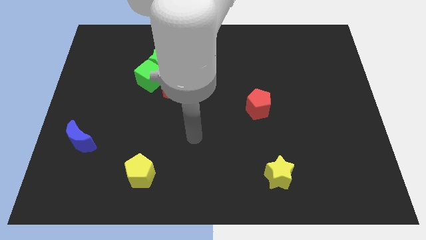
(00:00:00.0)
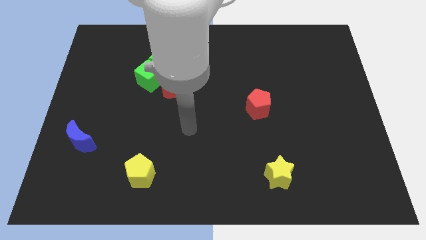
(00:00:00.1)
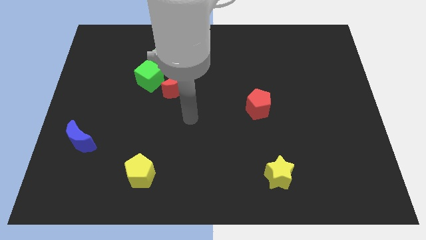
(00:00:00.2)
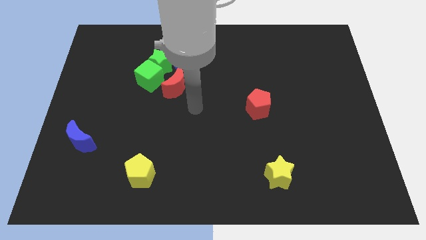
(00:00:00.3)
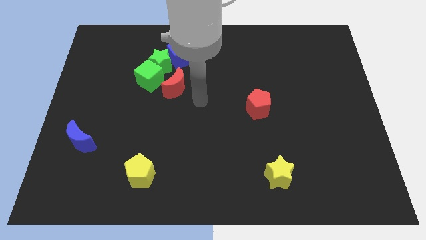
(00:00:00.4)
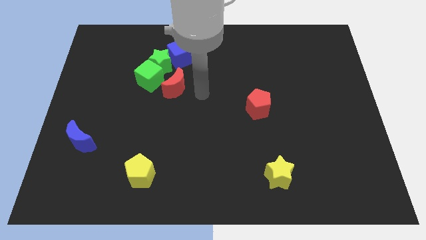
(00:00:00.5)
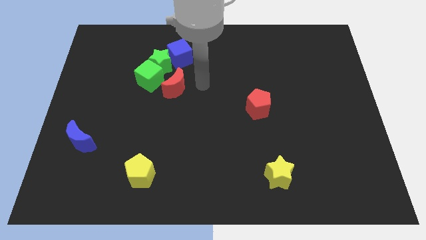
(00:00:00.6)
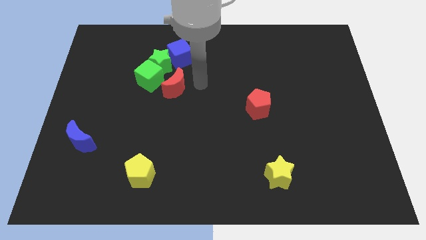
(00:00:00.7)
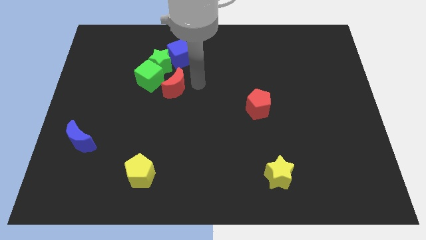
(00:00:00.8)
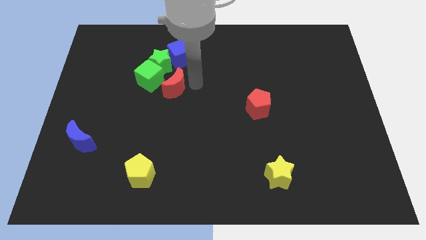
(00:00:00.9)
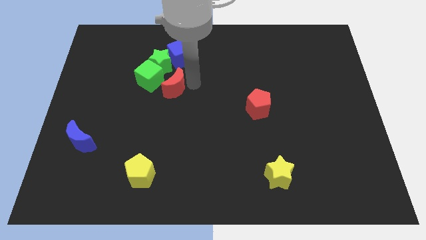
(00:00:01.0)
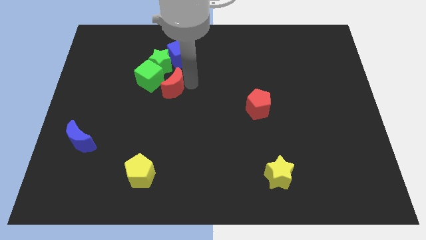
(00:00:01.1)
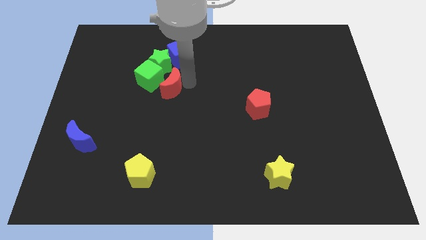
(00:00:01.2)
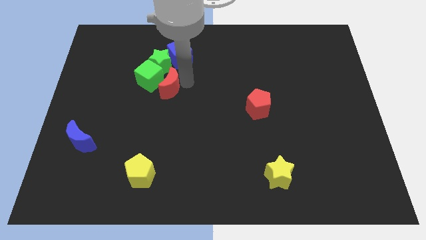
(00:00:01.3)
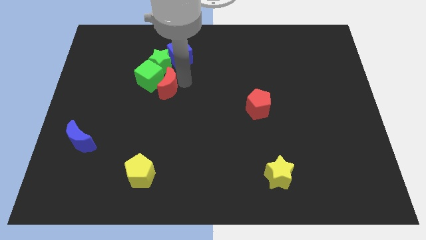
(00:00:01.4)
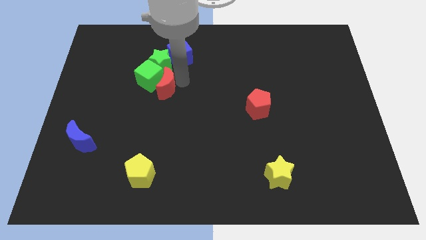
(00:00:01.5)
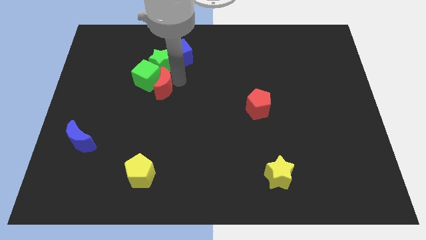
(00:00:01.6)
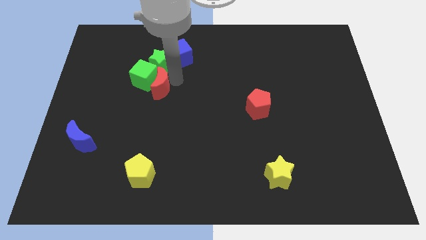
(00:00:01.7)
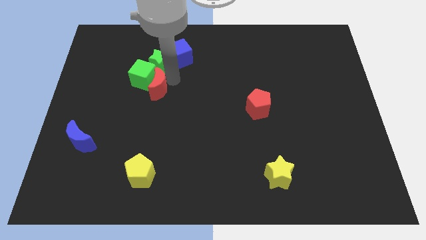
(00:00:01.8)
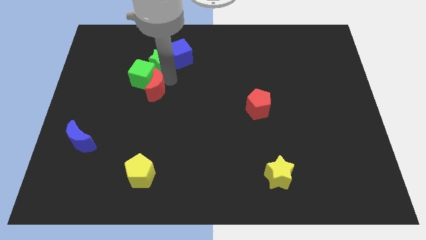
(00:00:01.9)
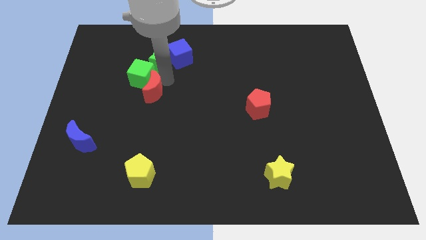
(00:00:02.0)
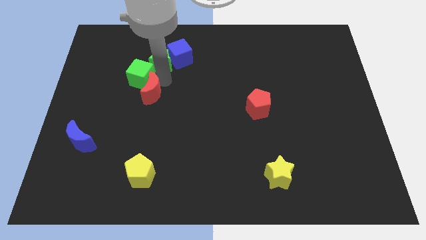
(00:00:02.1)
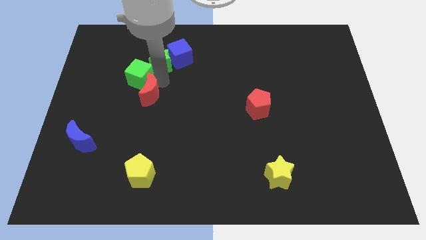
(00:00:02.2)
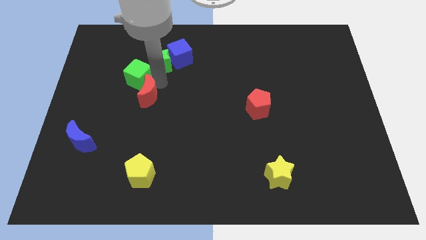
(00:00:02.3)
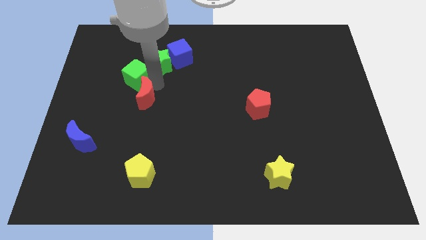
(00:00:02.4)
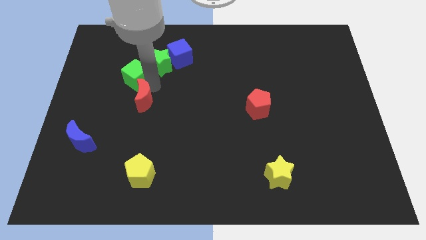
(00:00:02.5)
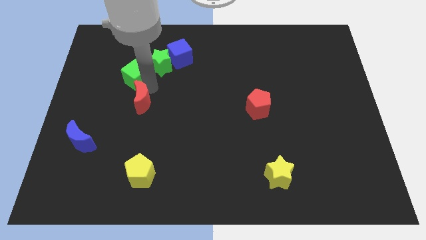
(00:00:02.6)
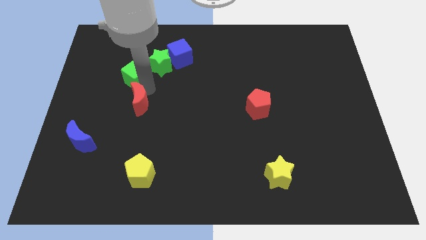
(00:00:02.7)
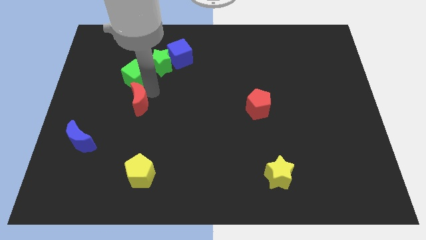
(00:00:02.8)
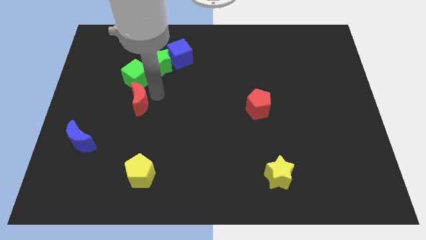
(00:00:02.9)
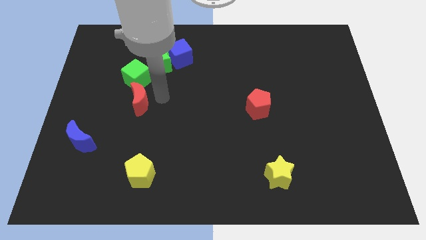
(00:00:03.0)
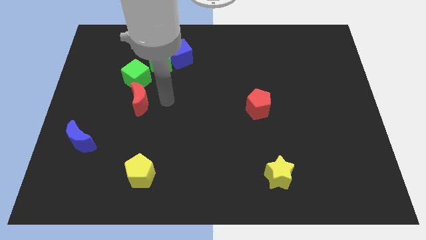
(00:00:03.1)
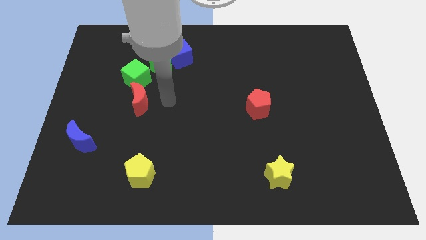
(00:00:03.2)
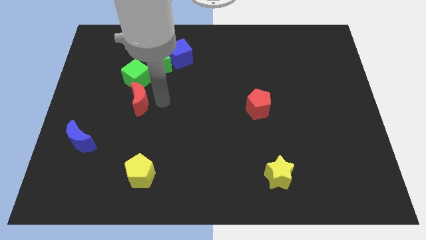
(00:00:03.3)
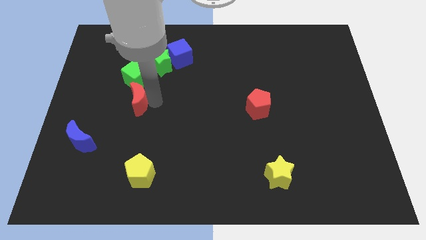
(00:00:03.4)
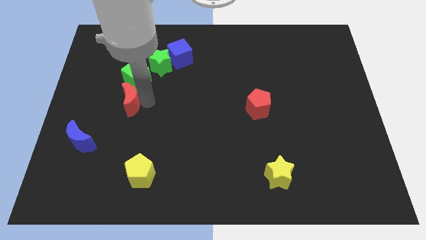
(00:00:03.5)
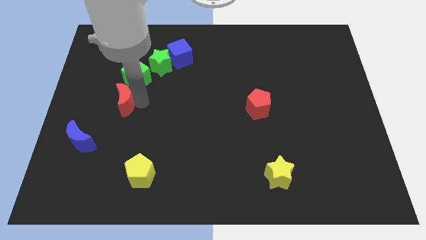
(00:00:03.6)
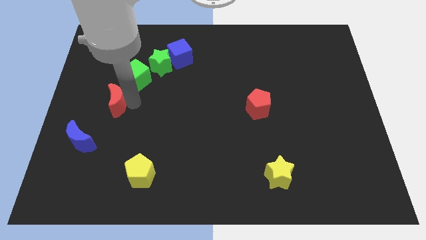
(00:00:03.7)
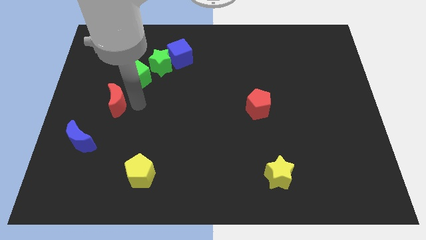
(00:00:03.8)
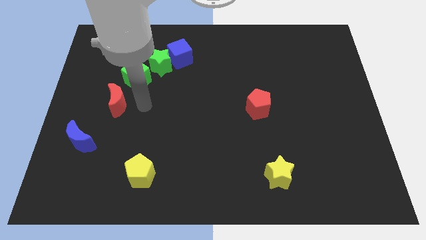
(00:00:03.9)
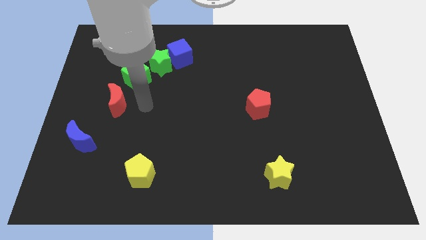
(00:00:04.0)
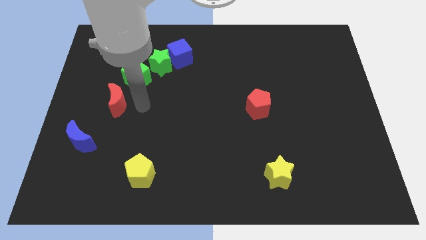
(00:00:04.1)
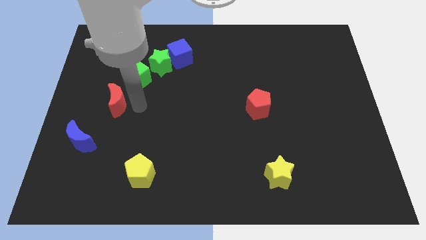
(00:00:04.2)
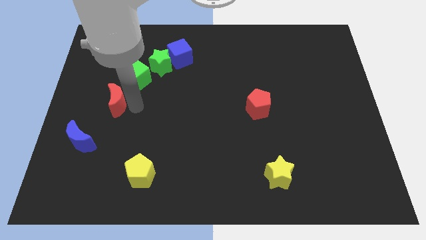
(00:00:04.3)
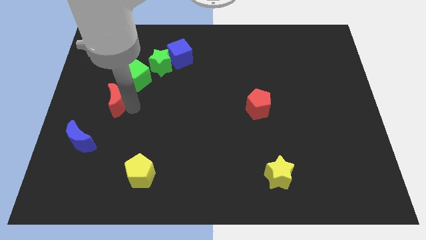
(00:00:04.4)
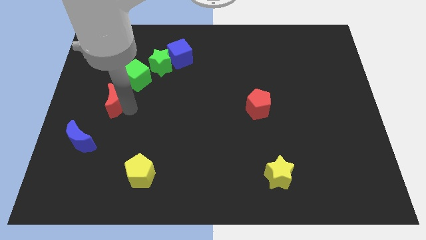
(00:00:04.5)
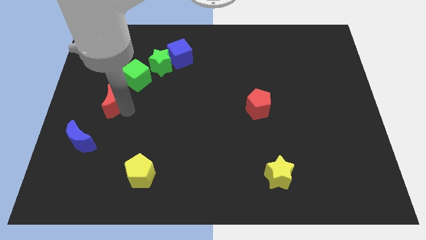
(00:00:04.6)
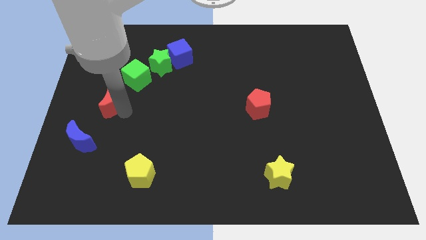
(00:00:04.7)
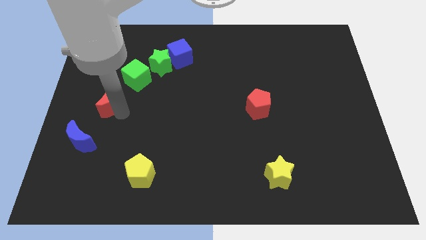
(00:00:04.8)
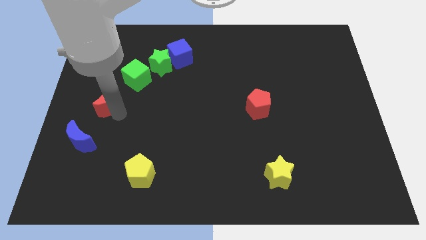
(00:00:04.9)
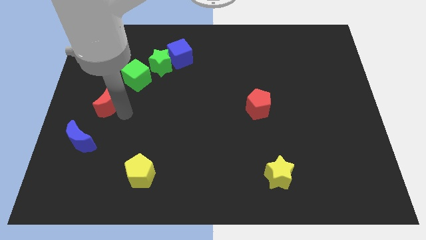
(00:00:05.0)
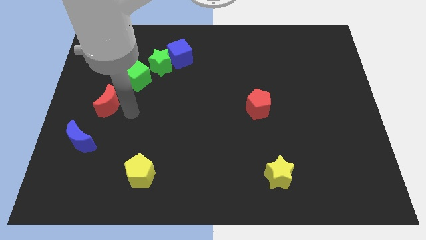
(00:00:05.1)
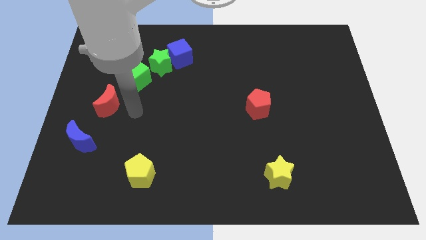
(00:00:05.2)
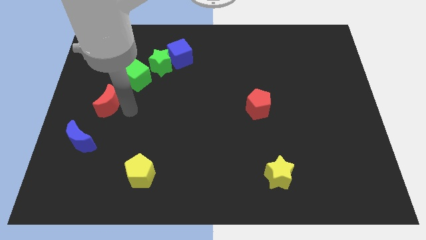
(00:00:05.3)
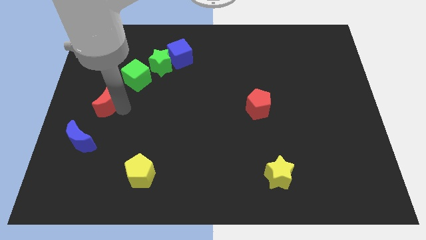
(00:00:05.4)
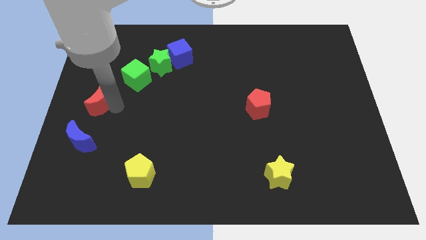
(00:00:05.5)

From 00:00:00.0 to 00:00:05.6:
move the red moon to the left side
